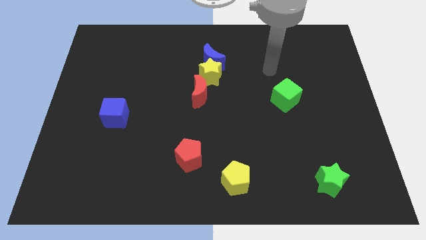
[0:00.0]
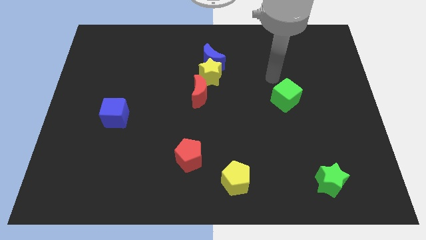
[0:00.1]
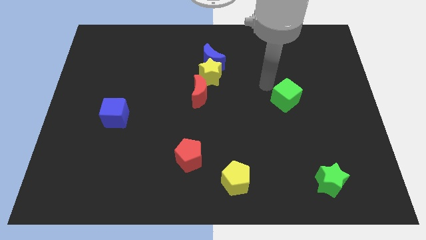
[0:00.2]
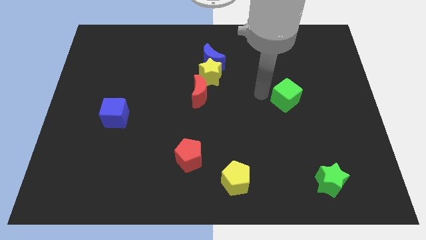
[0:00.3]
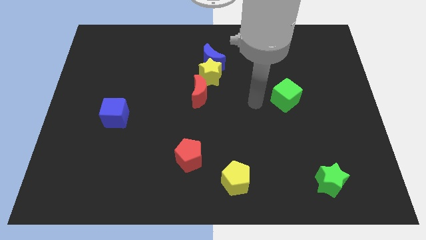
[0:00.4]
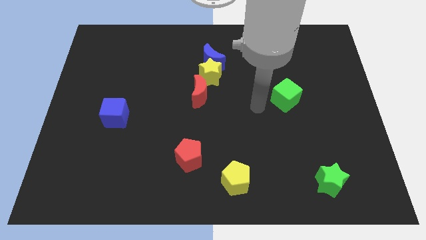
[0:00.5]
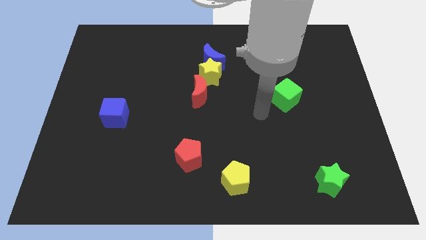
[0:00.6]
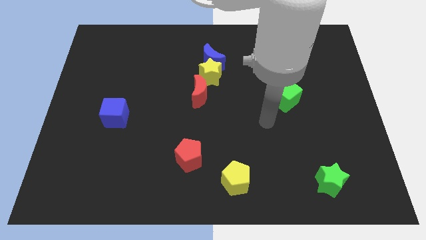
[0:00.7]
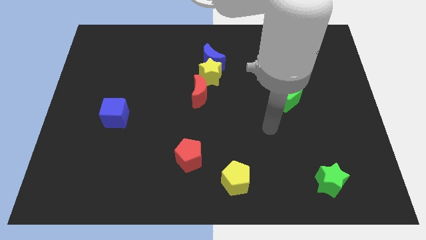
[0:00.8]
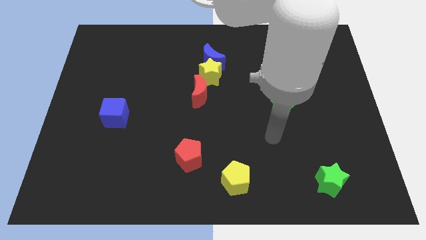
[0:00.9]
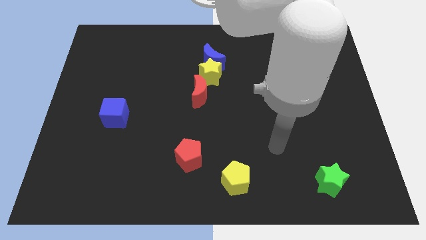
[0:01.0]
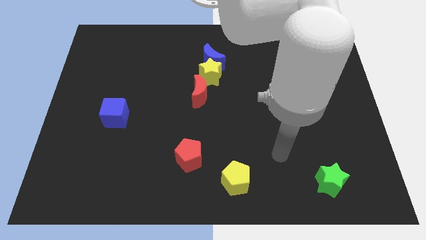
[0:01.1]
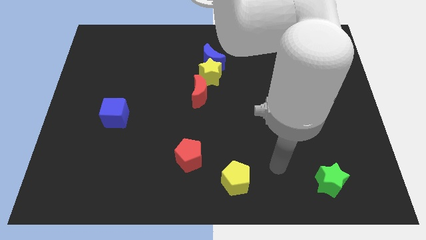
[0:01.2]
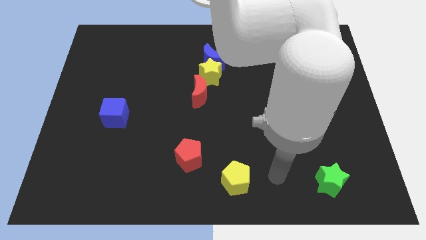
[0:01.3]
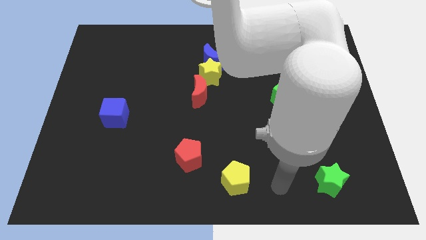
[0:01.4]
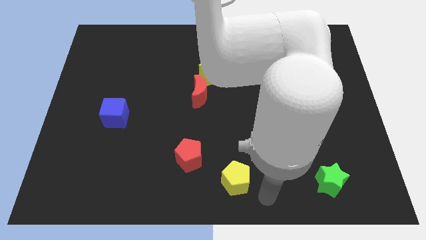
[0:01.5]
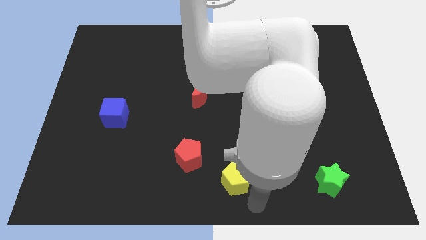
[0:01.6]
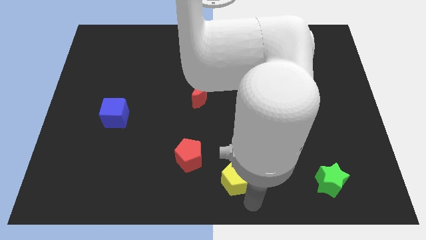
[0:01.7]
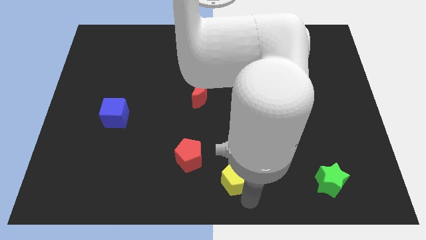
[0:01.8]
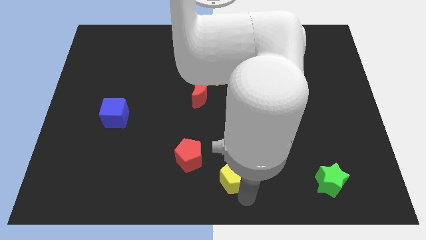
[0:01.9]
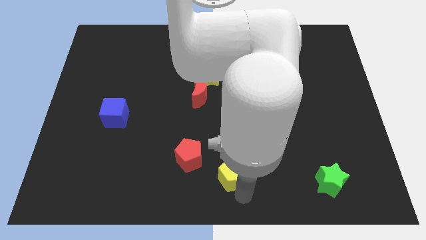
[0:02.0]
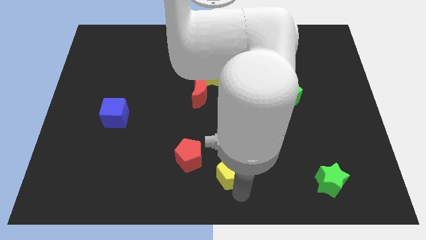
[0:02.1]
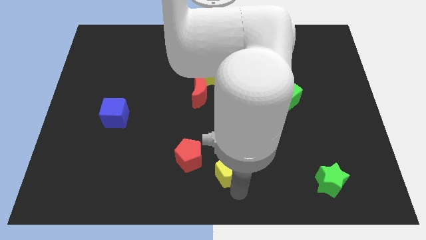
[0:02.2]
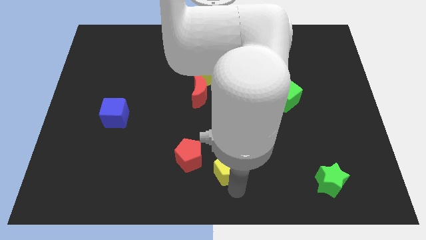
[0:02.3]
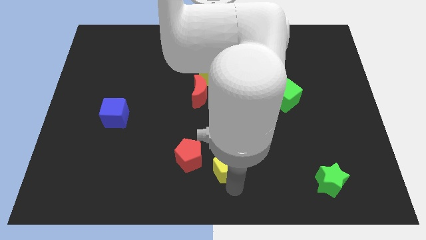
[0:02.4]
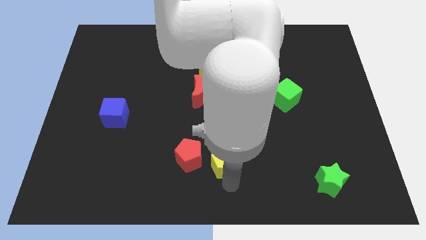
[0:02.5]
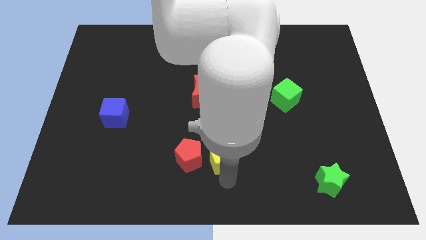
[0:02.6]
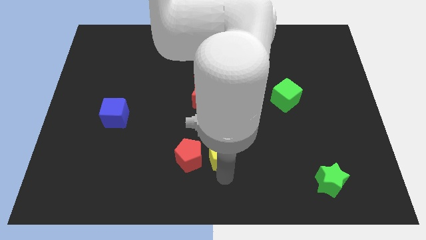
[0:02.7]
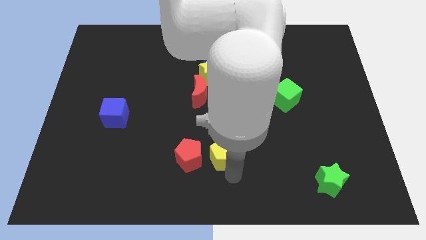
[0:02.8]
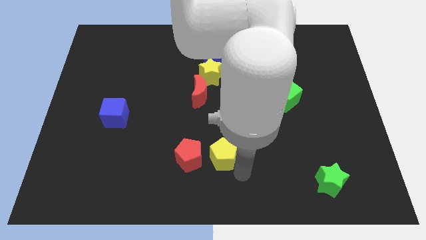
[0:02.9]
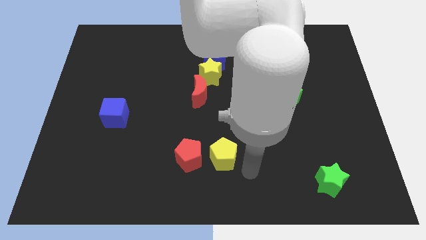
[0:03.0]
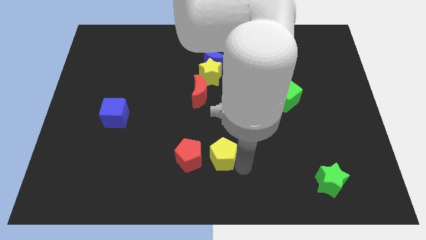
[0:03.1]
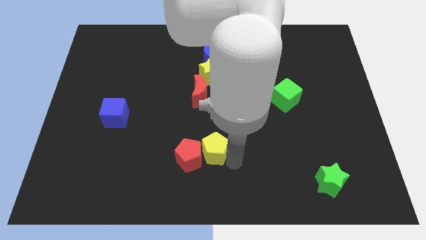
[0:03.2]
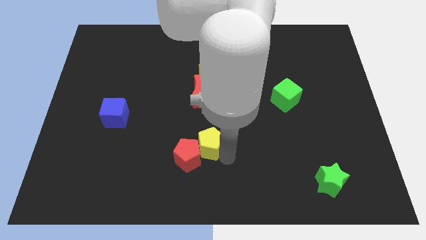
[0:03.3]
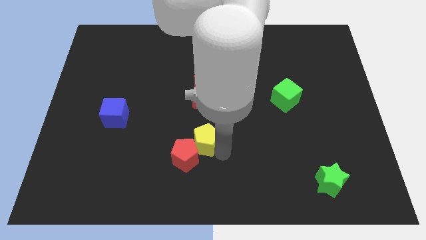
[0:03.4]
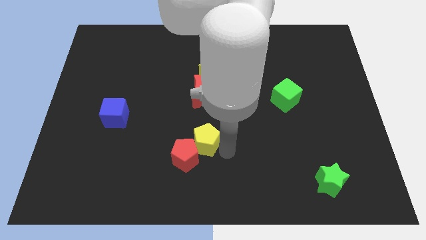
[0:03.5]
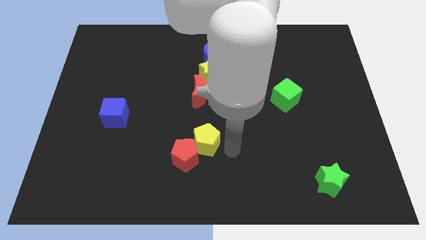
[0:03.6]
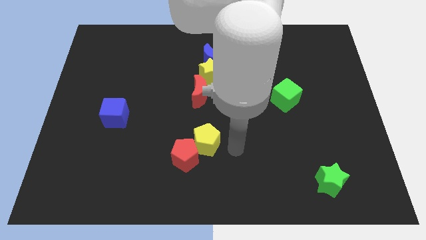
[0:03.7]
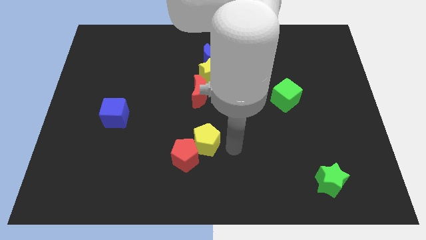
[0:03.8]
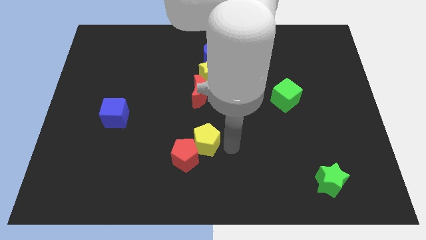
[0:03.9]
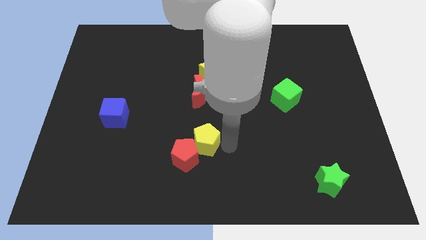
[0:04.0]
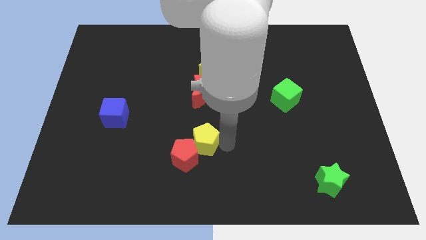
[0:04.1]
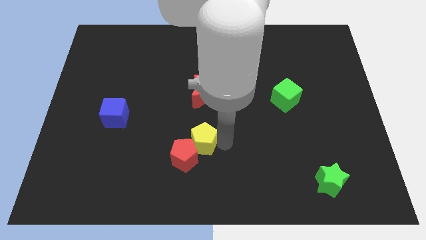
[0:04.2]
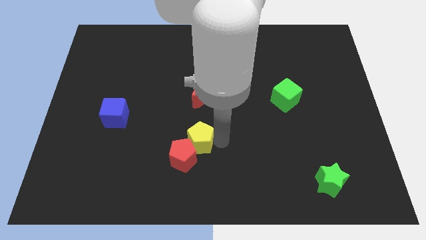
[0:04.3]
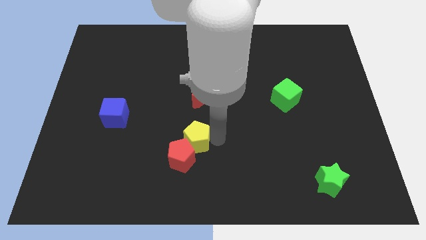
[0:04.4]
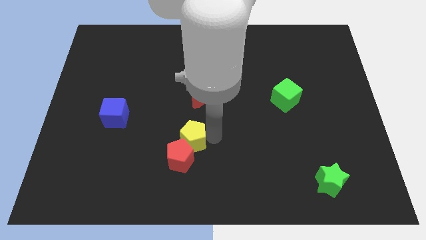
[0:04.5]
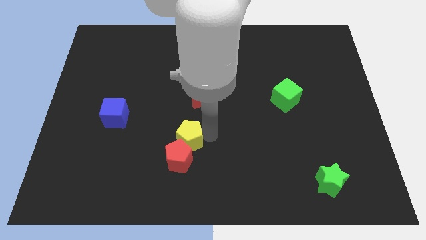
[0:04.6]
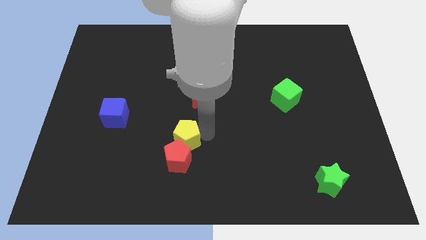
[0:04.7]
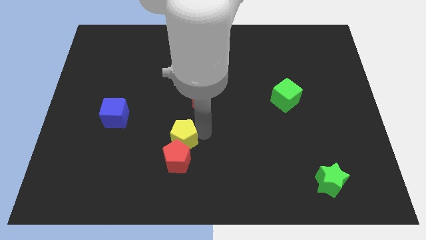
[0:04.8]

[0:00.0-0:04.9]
move the yellow pentagon to the top left side of the red pentagon

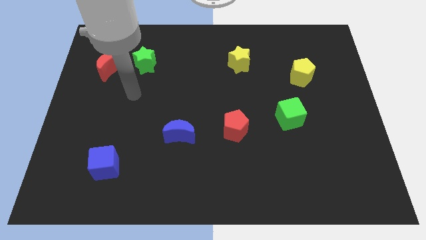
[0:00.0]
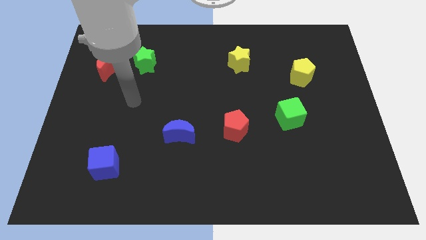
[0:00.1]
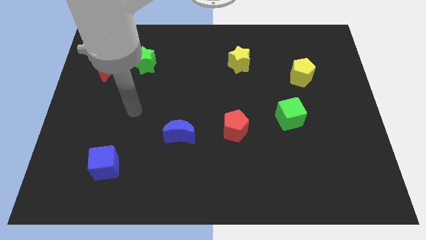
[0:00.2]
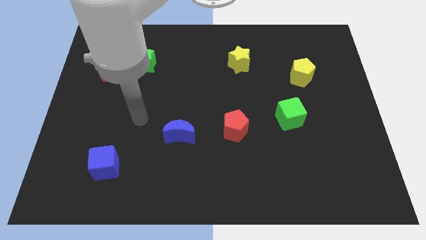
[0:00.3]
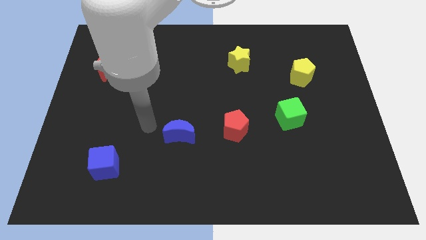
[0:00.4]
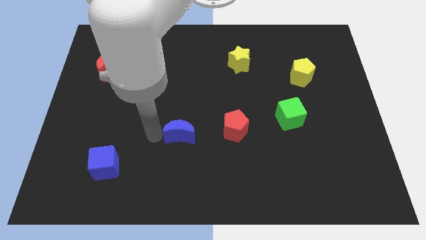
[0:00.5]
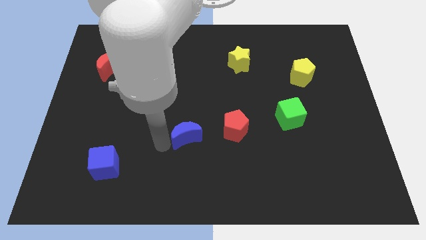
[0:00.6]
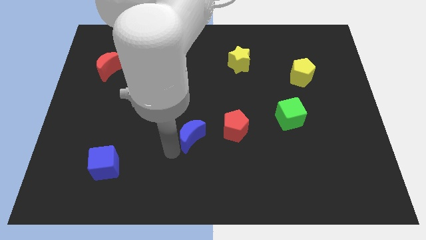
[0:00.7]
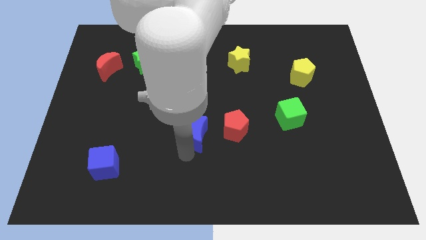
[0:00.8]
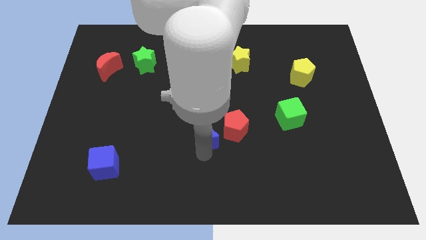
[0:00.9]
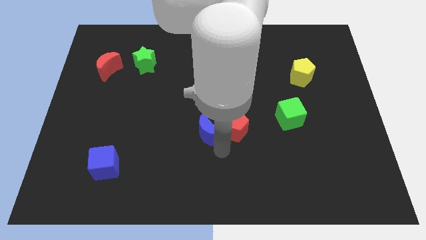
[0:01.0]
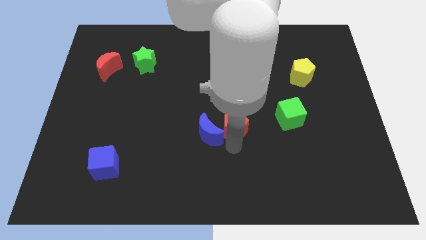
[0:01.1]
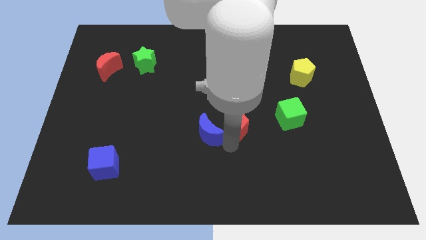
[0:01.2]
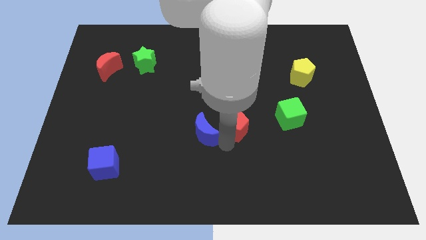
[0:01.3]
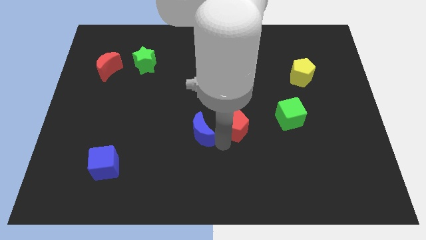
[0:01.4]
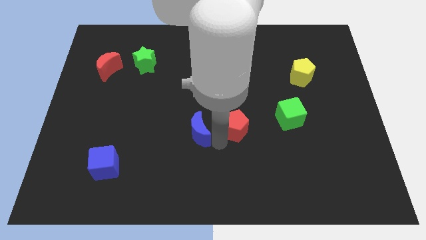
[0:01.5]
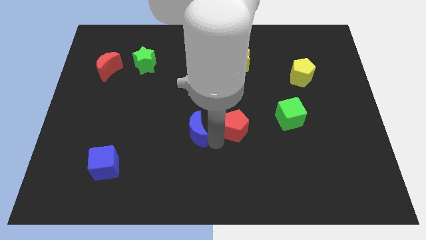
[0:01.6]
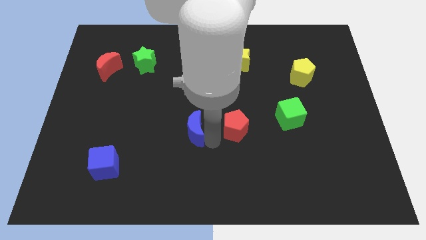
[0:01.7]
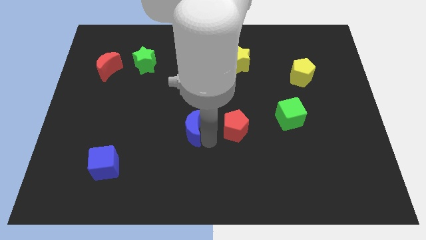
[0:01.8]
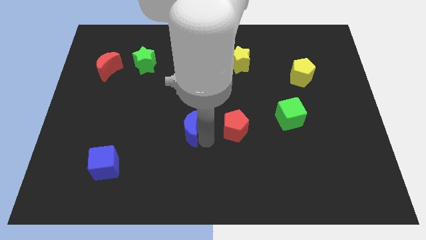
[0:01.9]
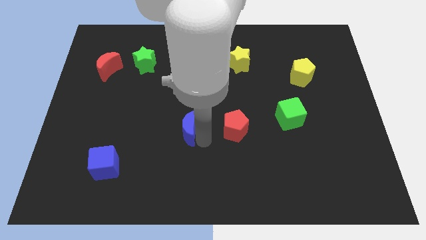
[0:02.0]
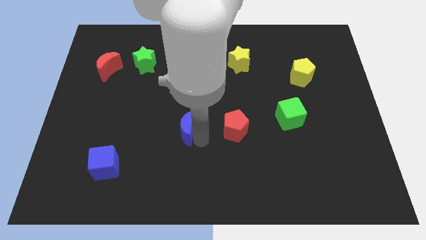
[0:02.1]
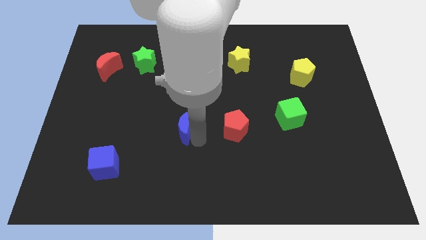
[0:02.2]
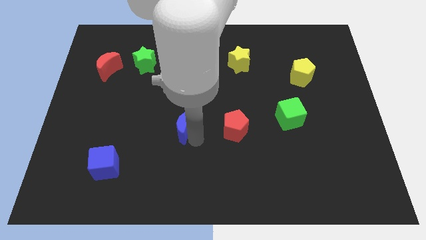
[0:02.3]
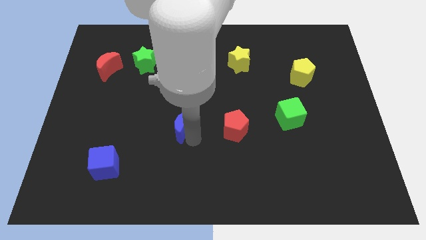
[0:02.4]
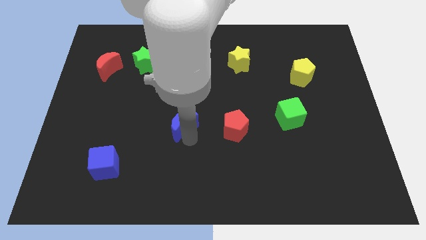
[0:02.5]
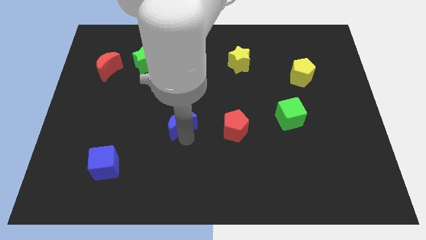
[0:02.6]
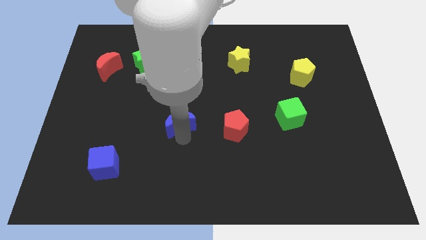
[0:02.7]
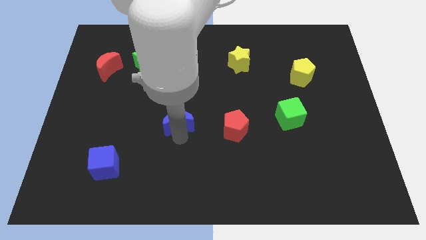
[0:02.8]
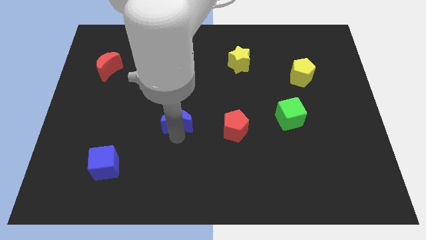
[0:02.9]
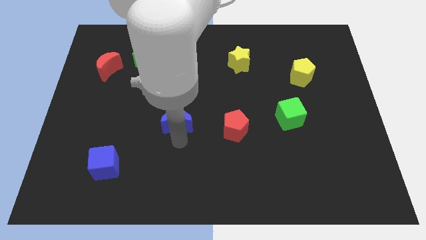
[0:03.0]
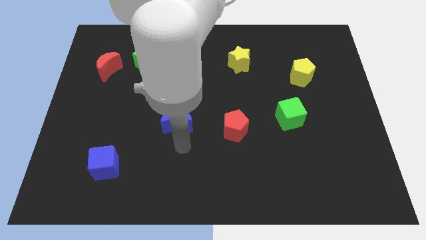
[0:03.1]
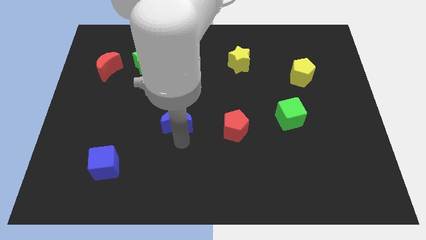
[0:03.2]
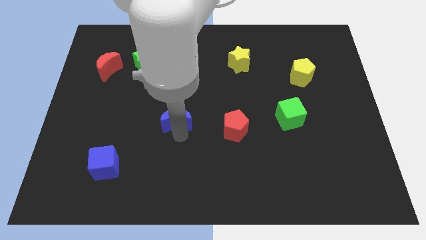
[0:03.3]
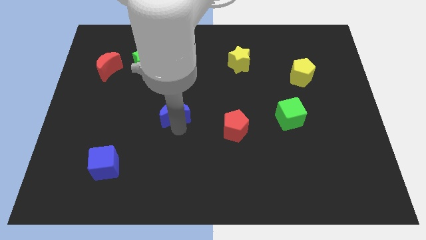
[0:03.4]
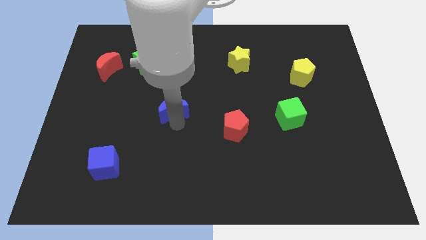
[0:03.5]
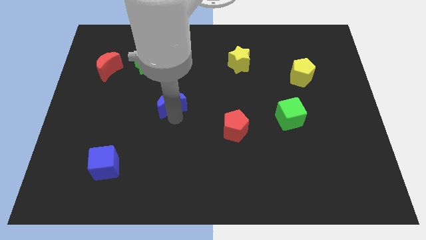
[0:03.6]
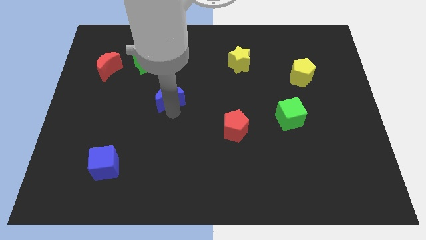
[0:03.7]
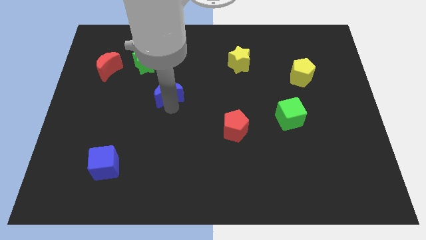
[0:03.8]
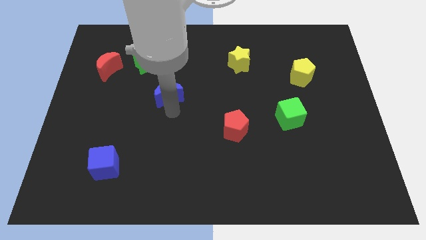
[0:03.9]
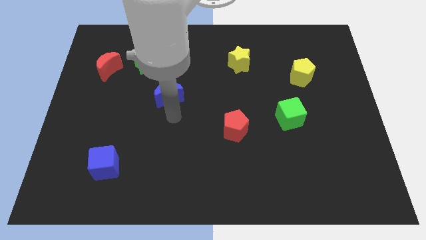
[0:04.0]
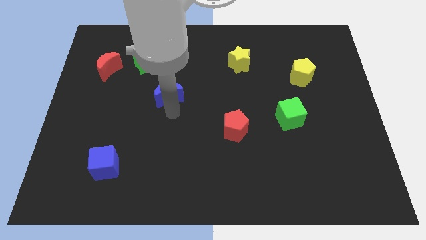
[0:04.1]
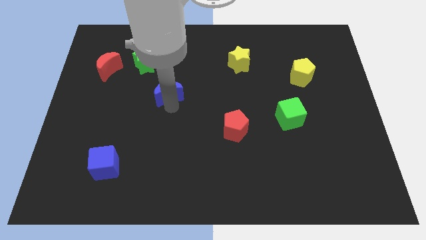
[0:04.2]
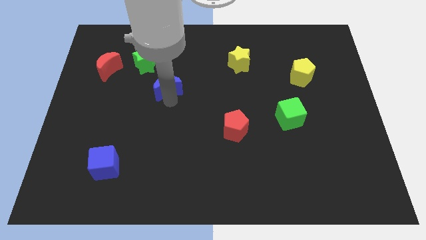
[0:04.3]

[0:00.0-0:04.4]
push the blue moon diagonally down and to the right of the green star
